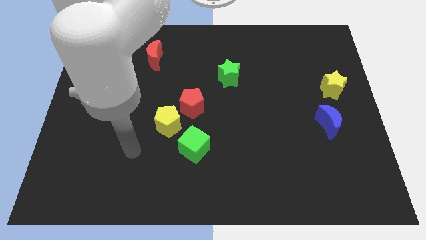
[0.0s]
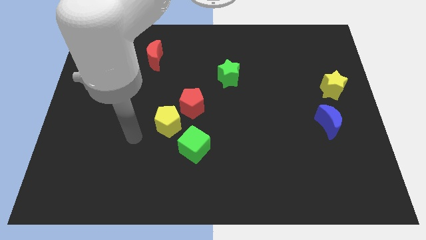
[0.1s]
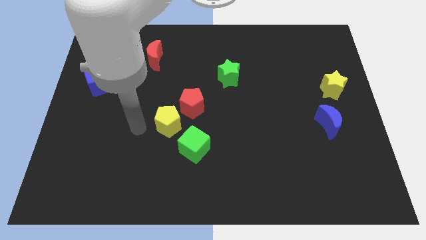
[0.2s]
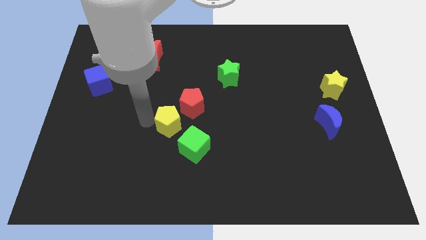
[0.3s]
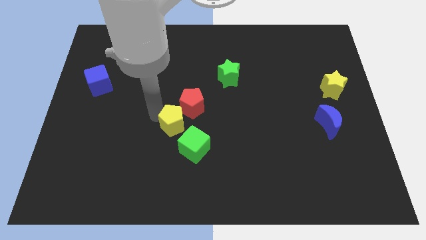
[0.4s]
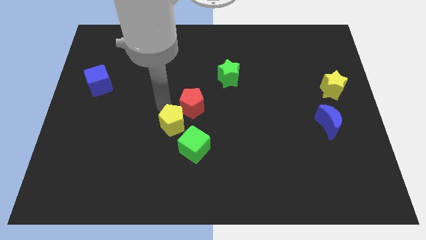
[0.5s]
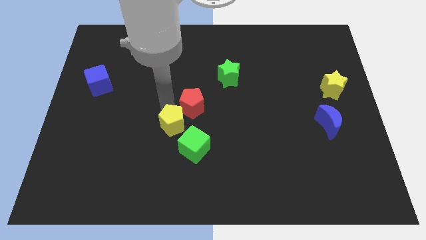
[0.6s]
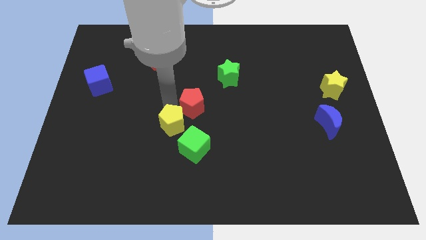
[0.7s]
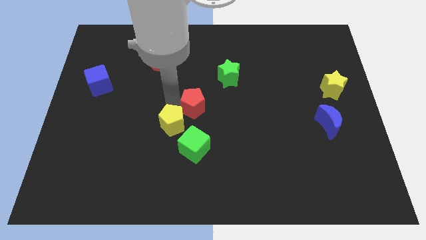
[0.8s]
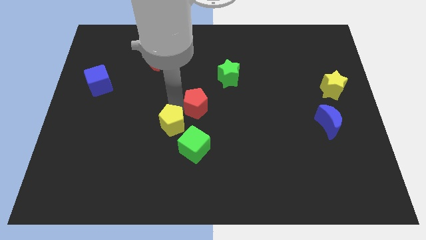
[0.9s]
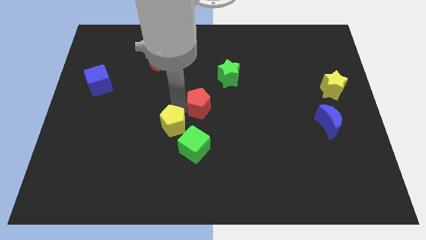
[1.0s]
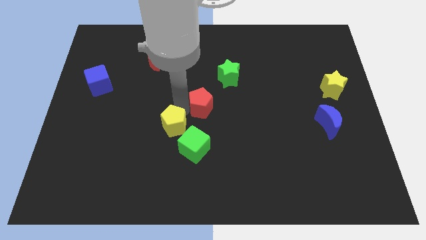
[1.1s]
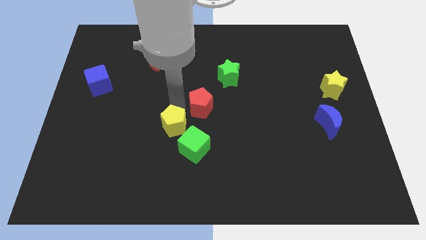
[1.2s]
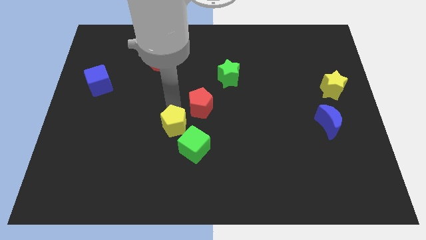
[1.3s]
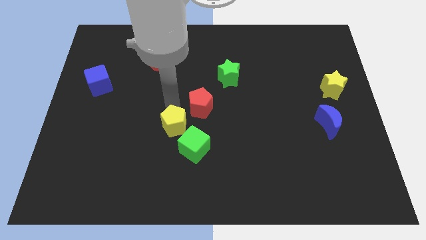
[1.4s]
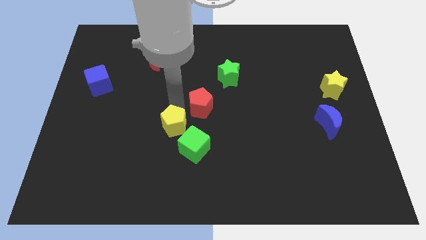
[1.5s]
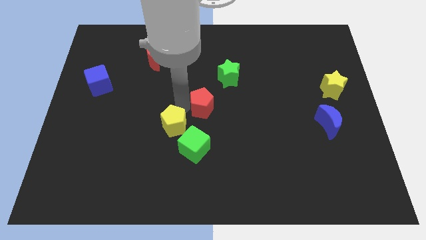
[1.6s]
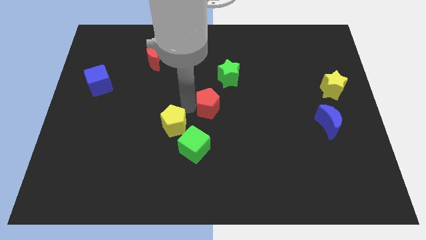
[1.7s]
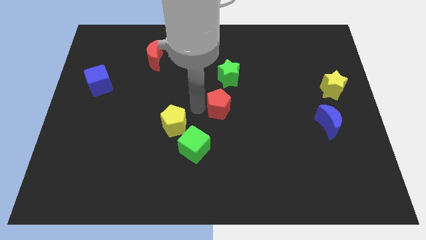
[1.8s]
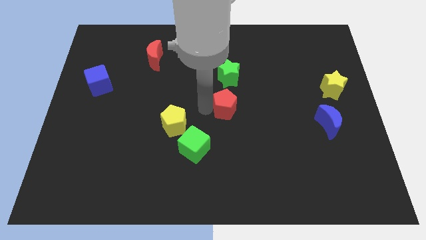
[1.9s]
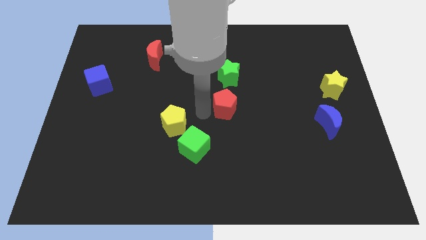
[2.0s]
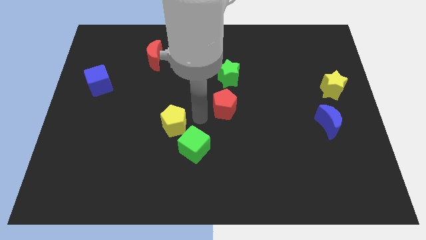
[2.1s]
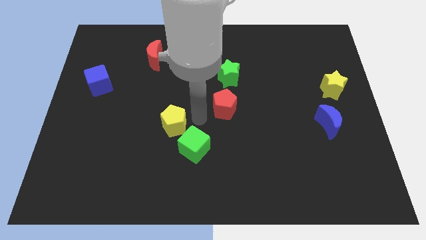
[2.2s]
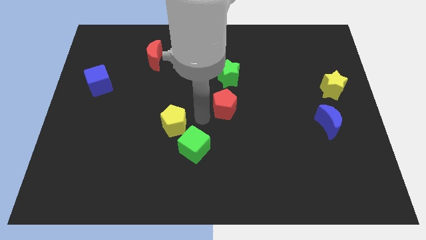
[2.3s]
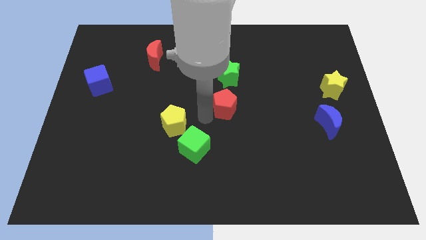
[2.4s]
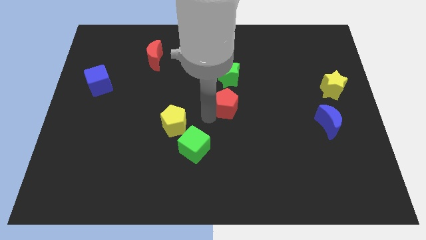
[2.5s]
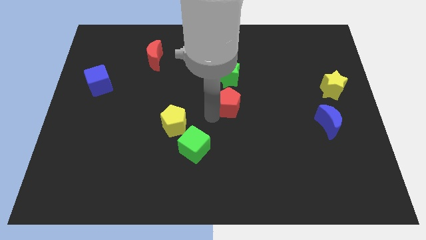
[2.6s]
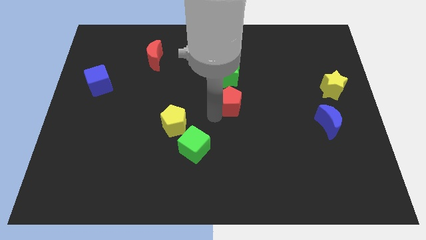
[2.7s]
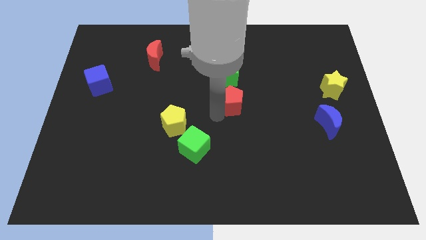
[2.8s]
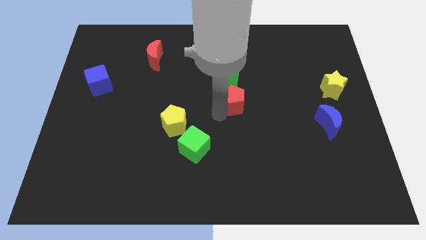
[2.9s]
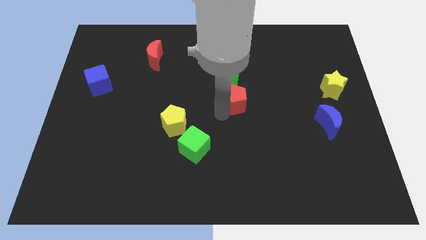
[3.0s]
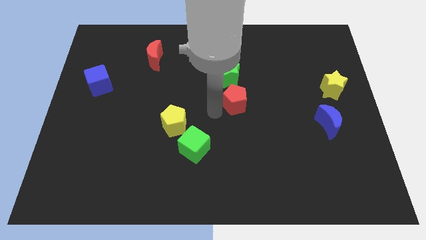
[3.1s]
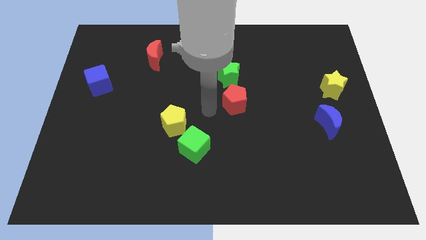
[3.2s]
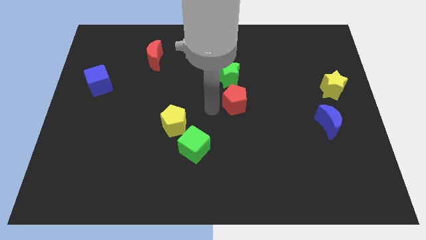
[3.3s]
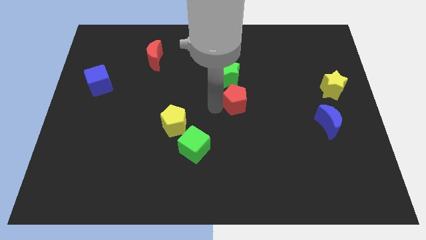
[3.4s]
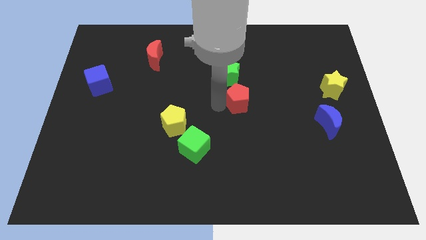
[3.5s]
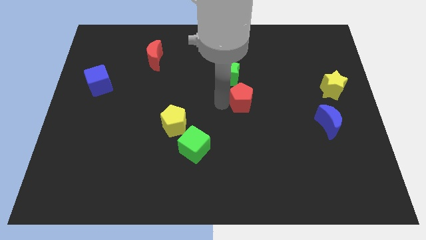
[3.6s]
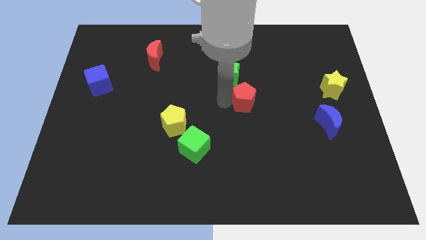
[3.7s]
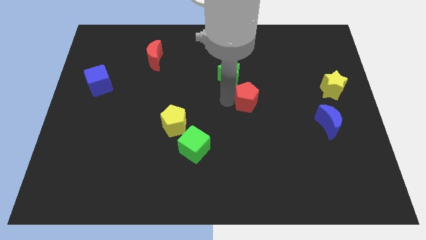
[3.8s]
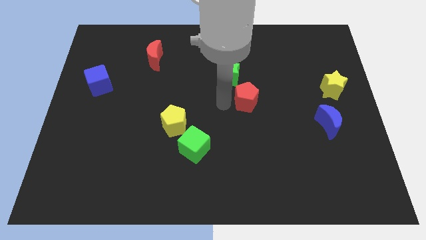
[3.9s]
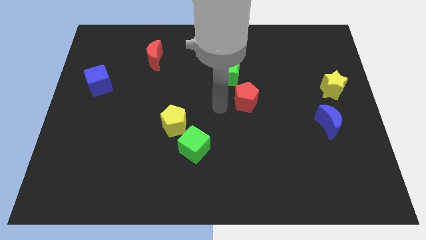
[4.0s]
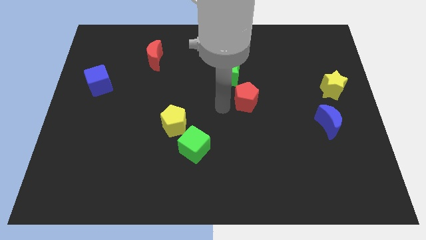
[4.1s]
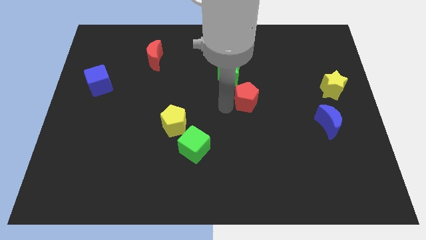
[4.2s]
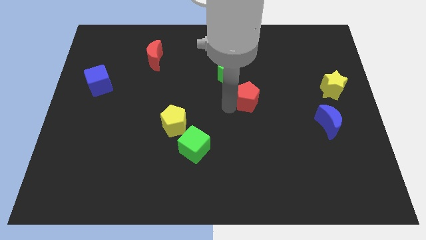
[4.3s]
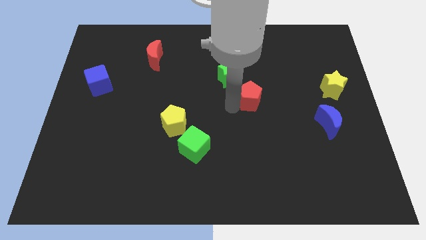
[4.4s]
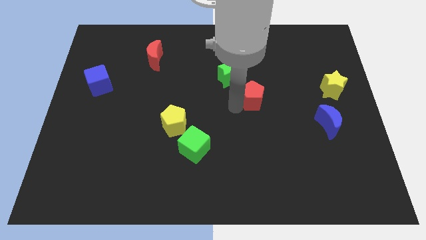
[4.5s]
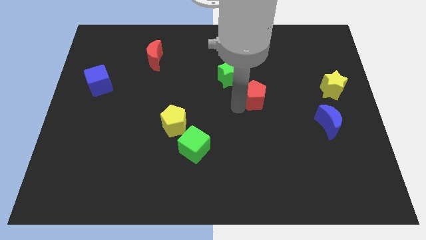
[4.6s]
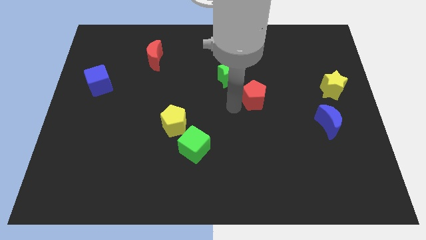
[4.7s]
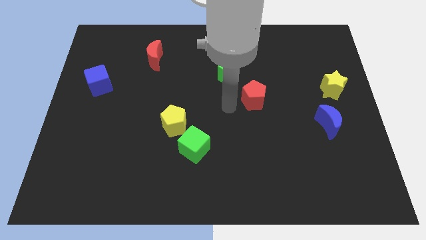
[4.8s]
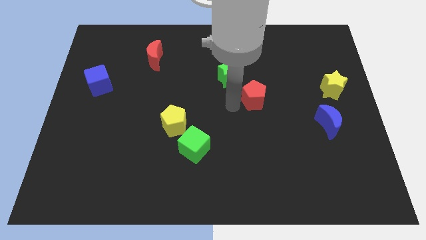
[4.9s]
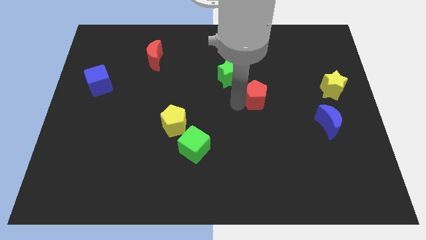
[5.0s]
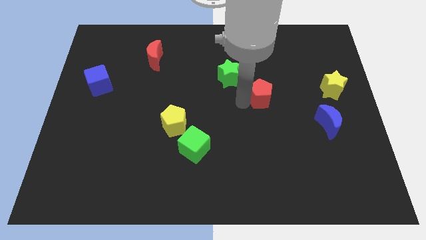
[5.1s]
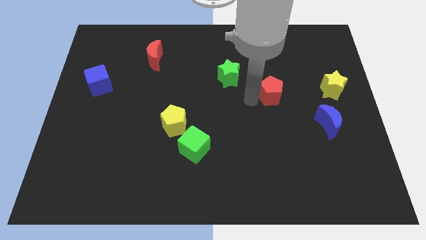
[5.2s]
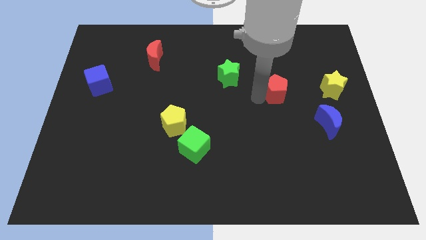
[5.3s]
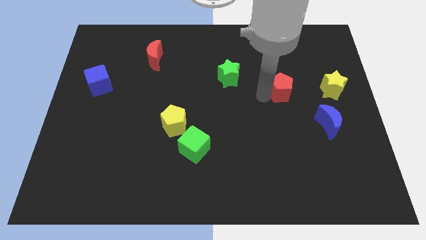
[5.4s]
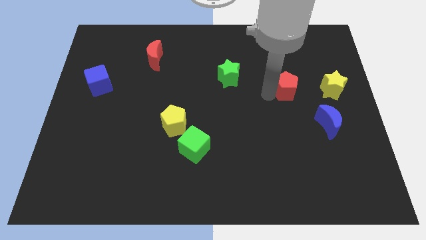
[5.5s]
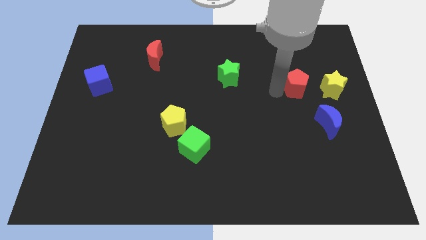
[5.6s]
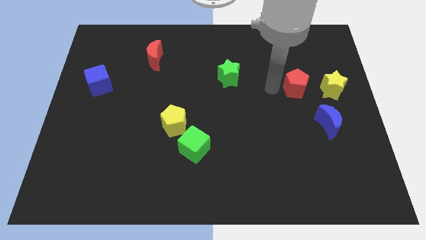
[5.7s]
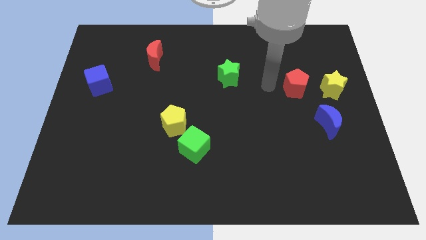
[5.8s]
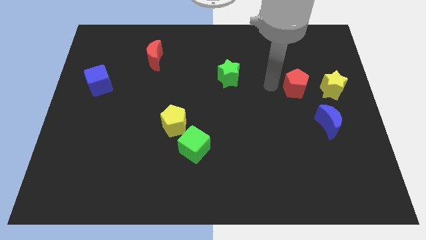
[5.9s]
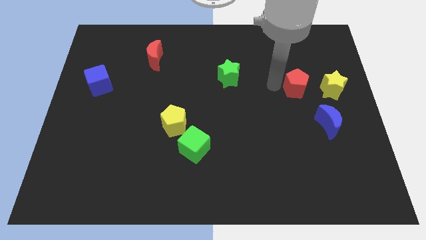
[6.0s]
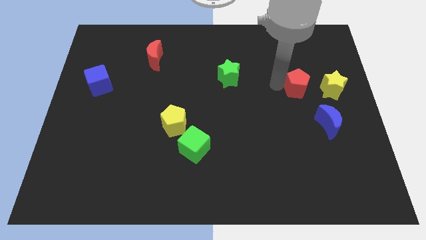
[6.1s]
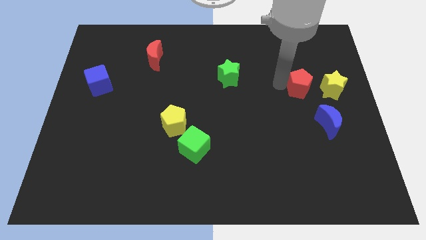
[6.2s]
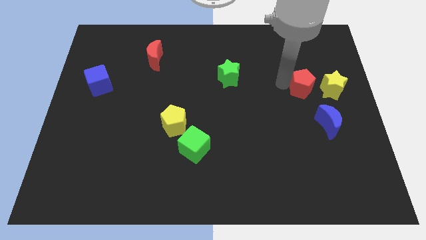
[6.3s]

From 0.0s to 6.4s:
slide the red pentagon to the top of the blue moon
